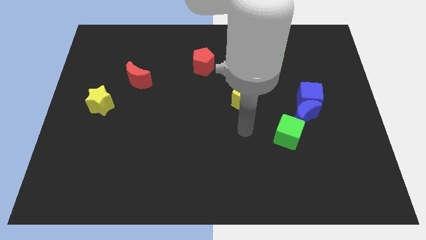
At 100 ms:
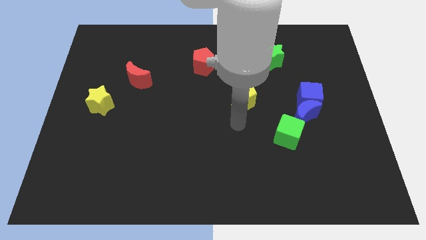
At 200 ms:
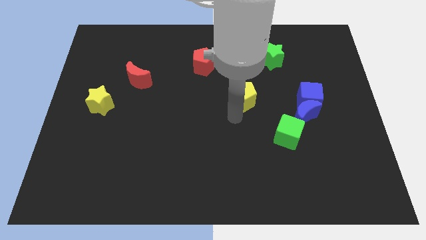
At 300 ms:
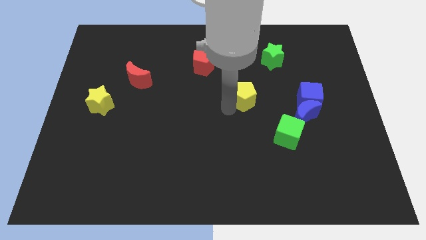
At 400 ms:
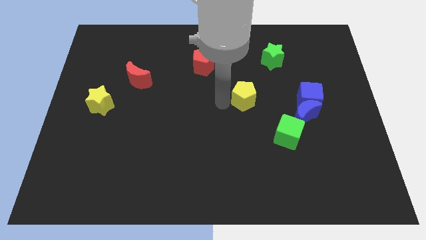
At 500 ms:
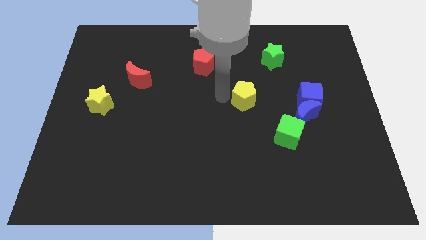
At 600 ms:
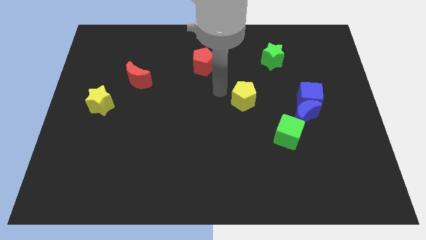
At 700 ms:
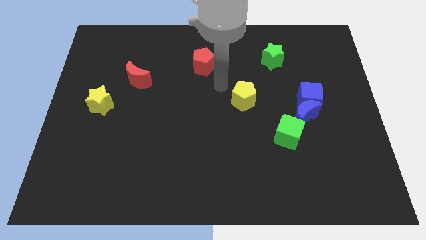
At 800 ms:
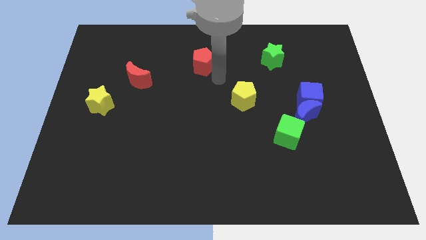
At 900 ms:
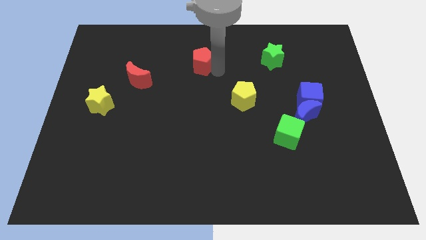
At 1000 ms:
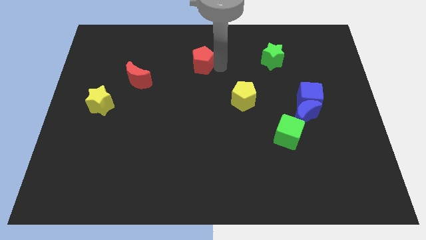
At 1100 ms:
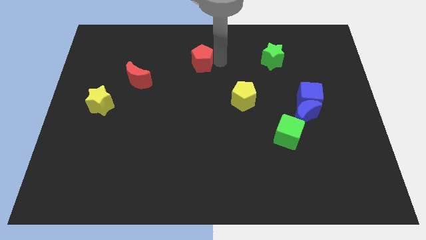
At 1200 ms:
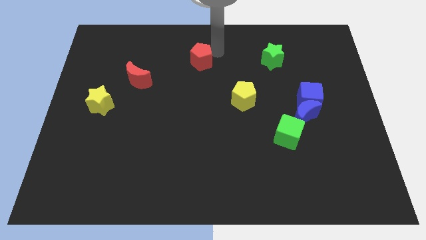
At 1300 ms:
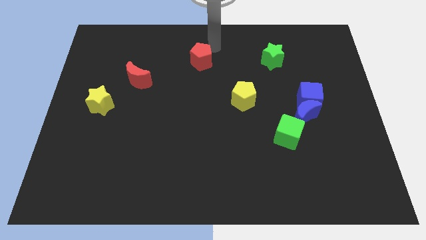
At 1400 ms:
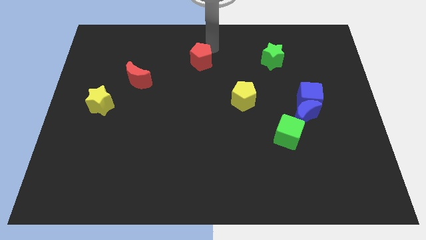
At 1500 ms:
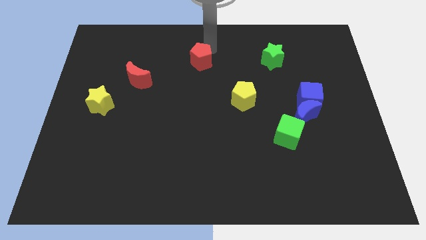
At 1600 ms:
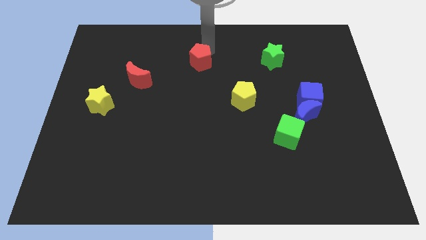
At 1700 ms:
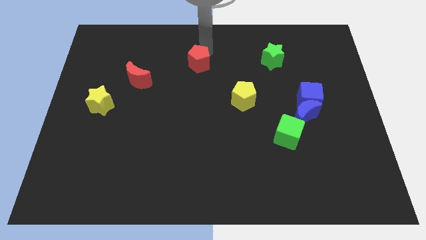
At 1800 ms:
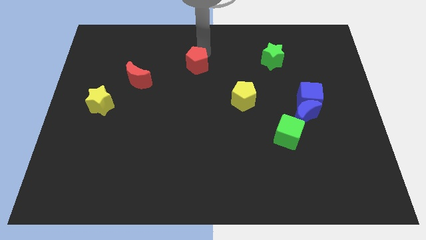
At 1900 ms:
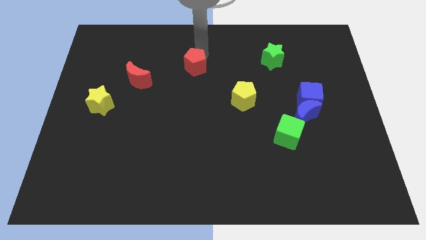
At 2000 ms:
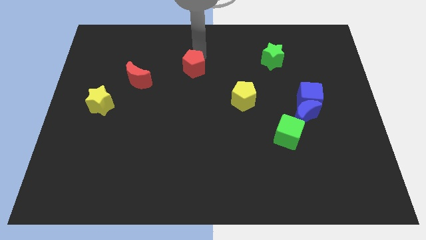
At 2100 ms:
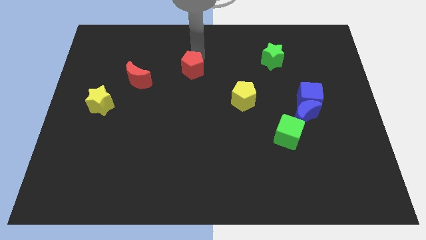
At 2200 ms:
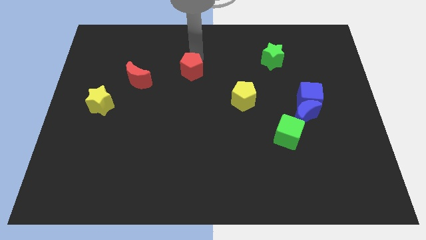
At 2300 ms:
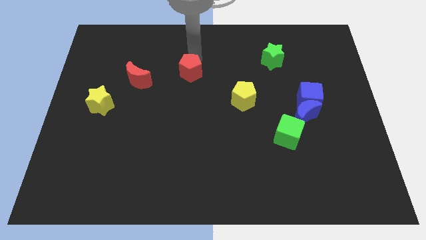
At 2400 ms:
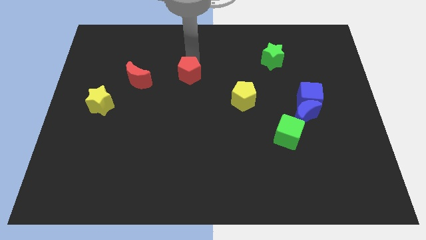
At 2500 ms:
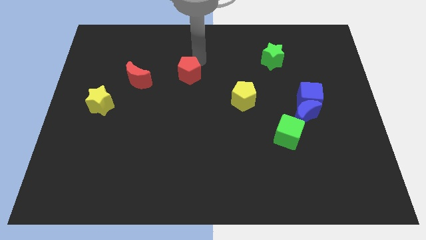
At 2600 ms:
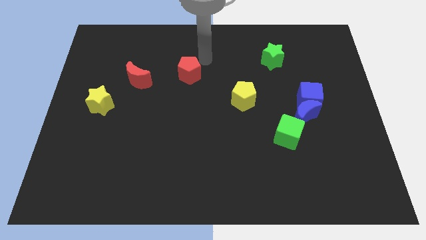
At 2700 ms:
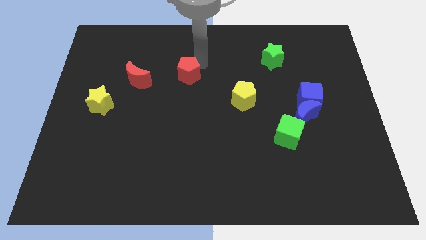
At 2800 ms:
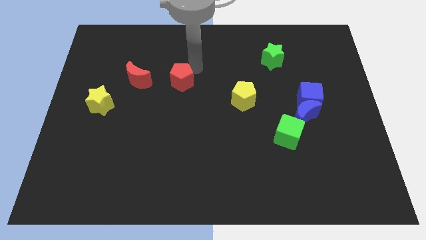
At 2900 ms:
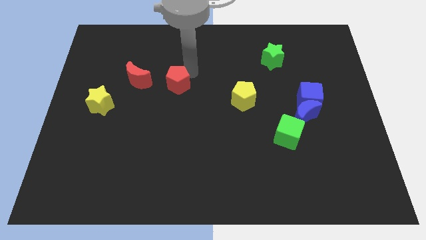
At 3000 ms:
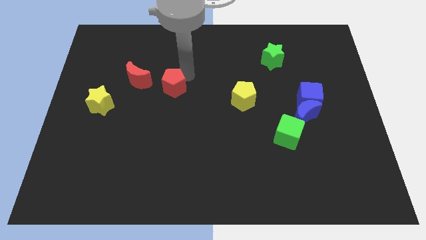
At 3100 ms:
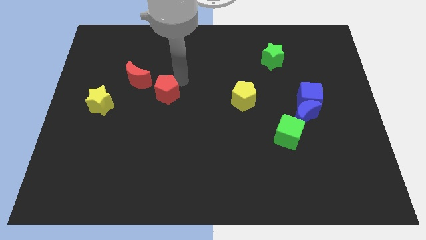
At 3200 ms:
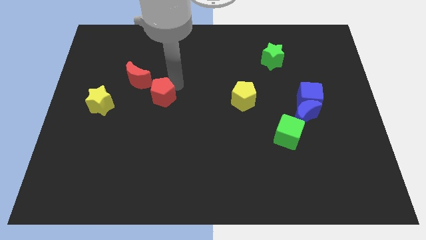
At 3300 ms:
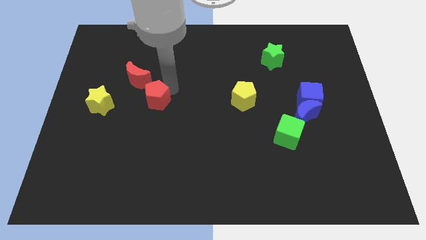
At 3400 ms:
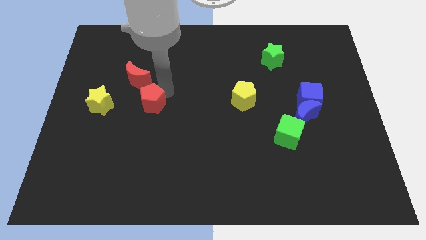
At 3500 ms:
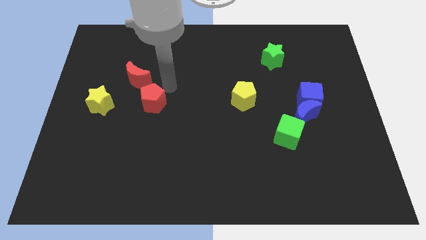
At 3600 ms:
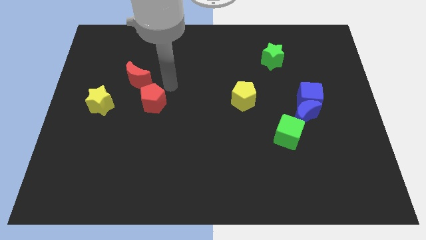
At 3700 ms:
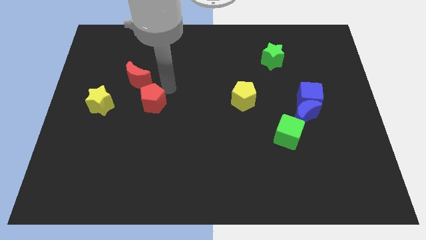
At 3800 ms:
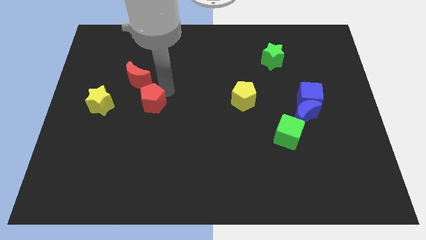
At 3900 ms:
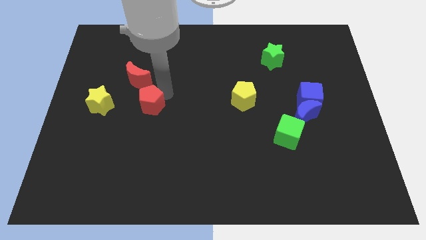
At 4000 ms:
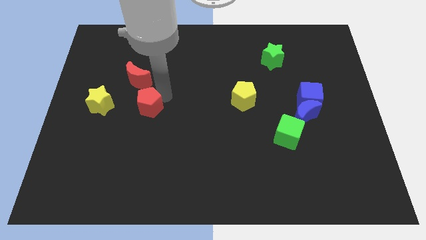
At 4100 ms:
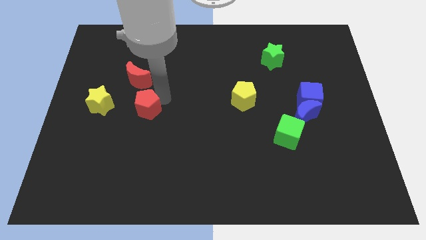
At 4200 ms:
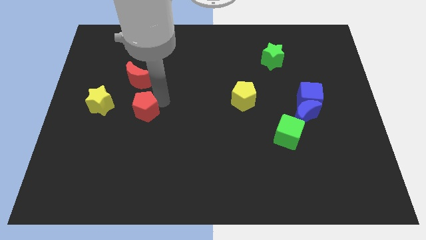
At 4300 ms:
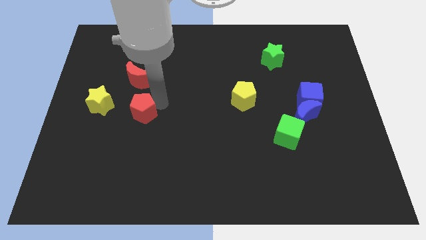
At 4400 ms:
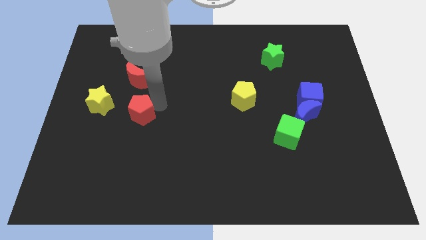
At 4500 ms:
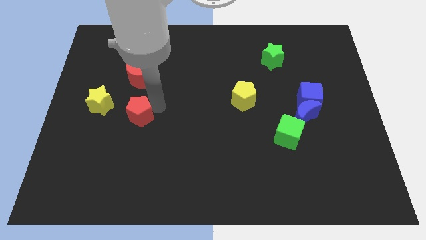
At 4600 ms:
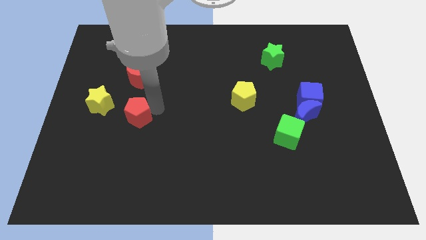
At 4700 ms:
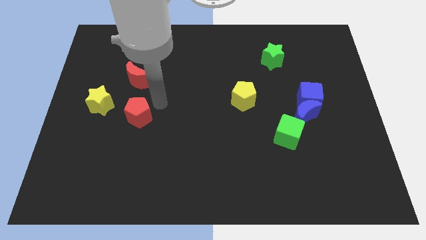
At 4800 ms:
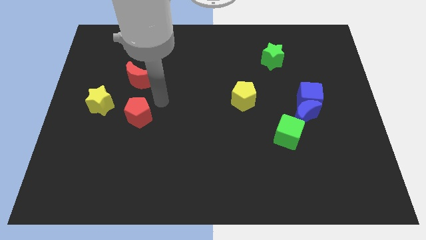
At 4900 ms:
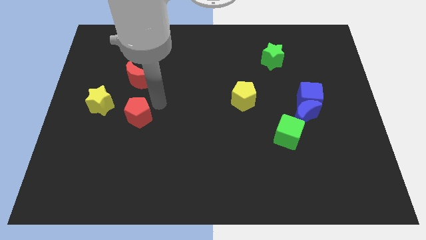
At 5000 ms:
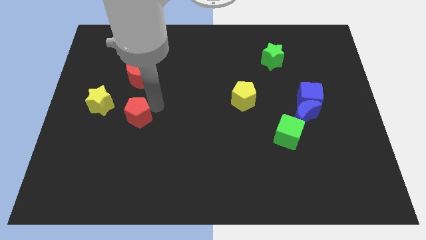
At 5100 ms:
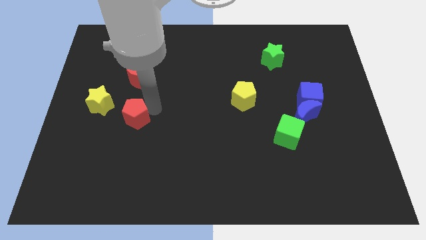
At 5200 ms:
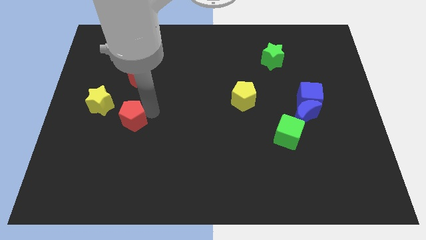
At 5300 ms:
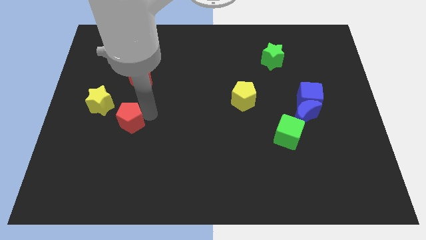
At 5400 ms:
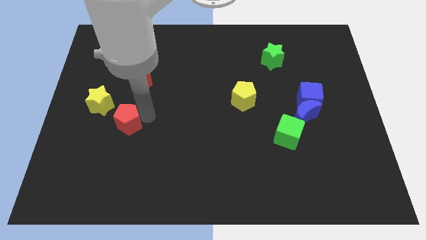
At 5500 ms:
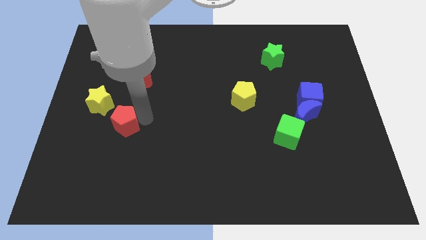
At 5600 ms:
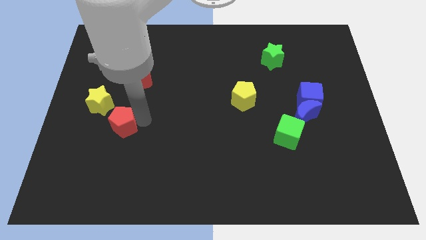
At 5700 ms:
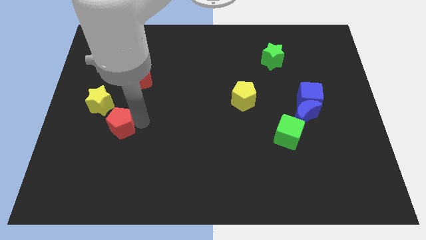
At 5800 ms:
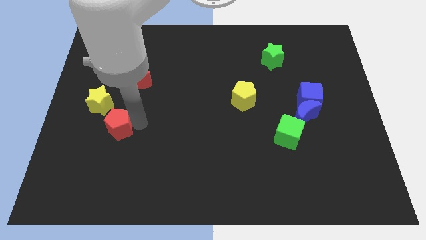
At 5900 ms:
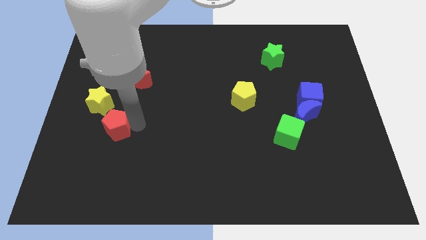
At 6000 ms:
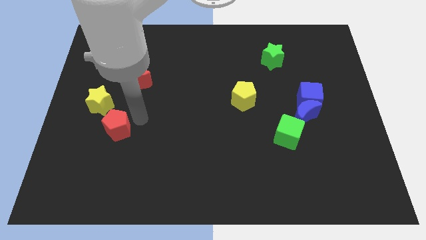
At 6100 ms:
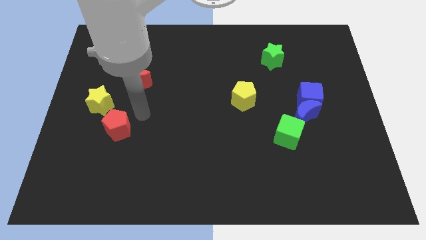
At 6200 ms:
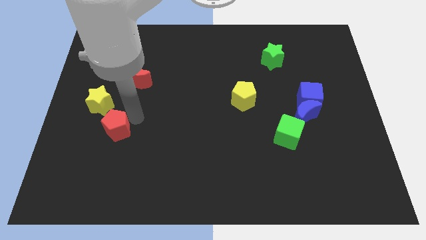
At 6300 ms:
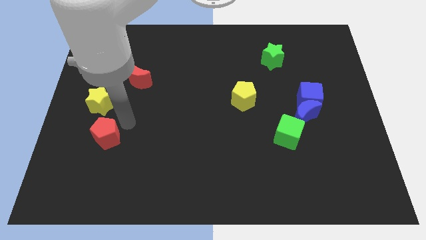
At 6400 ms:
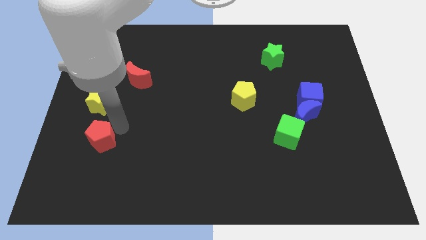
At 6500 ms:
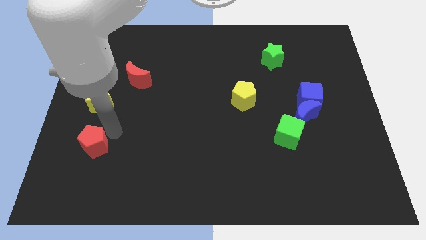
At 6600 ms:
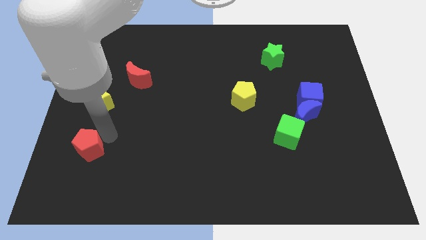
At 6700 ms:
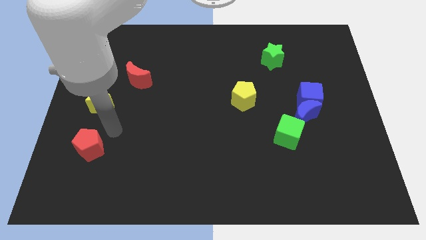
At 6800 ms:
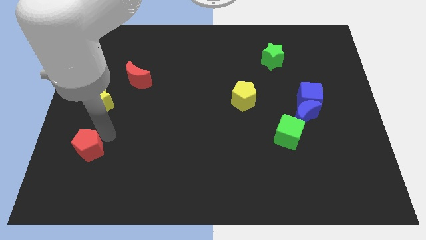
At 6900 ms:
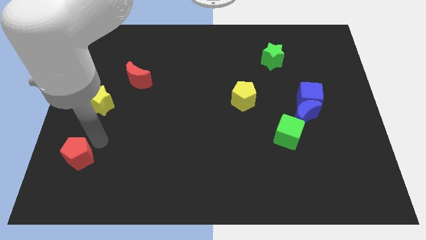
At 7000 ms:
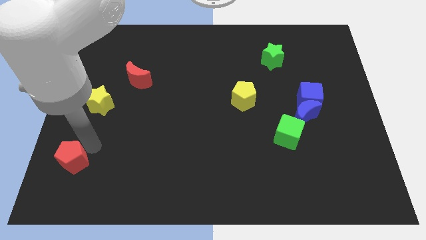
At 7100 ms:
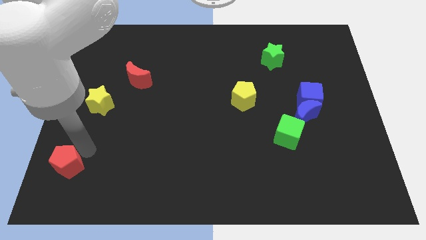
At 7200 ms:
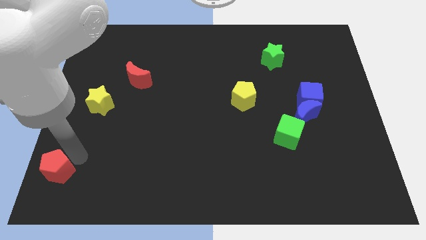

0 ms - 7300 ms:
put the red pentagon to the bottom left of the board

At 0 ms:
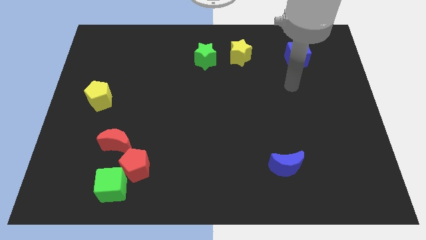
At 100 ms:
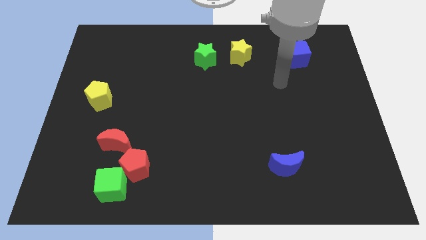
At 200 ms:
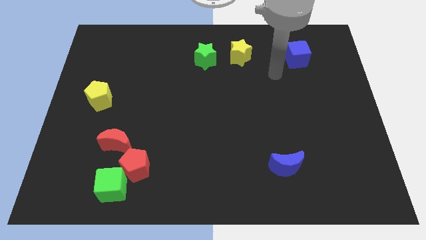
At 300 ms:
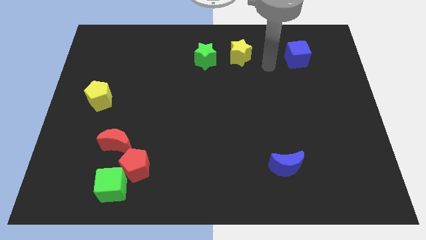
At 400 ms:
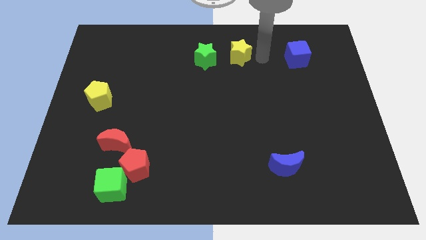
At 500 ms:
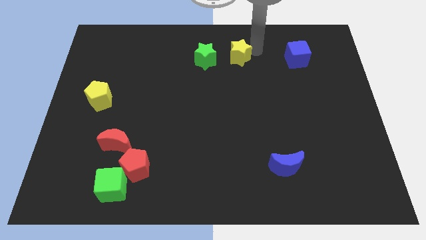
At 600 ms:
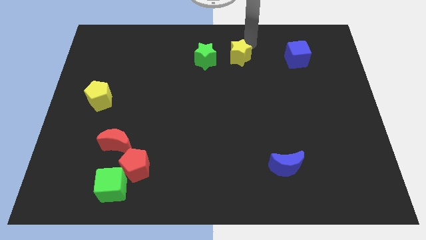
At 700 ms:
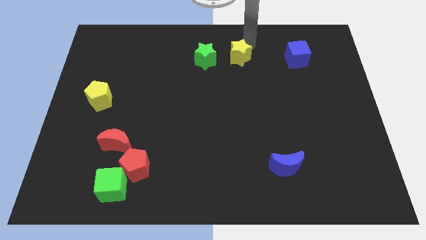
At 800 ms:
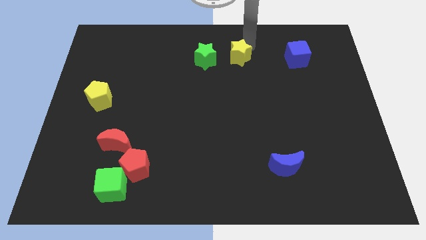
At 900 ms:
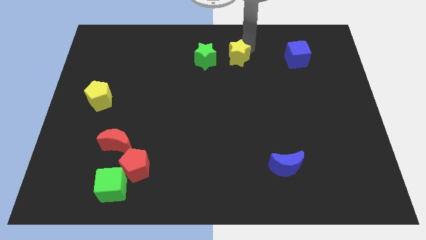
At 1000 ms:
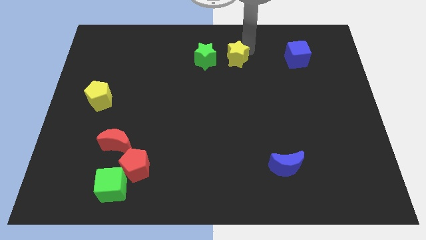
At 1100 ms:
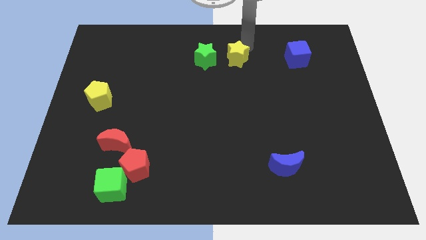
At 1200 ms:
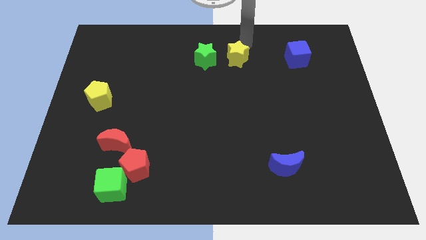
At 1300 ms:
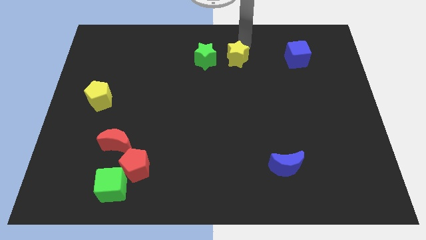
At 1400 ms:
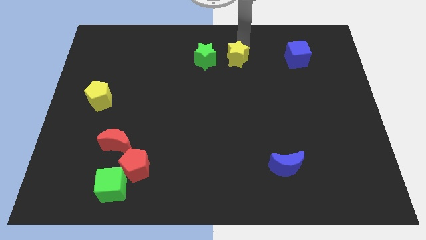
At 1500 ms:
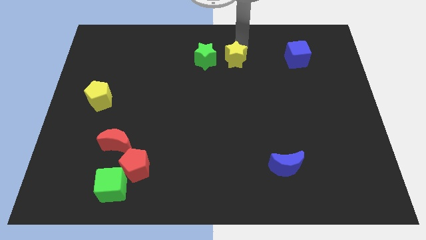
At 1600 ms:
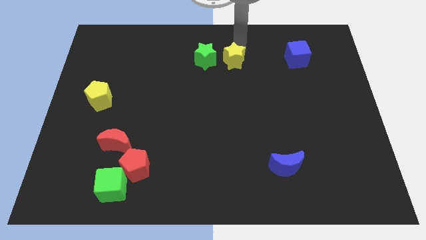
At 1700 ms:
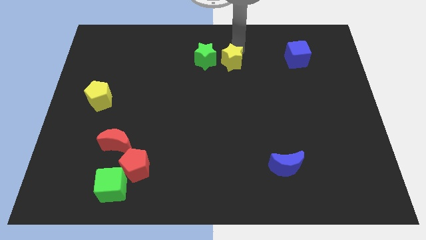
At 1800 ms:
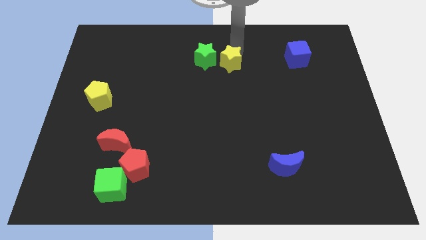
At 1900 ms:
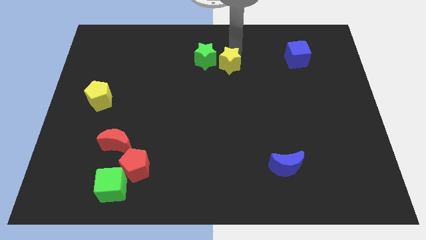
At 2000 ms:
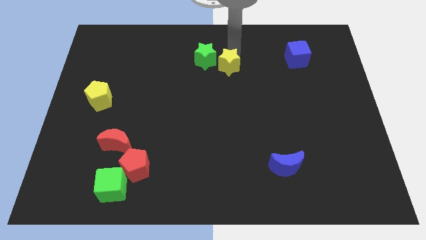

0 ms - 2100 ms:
put the yellow star to the center of the board
